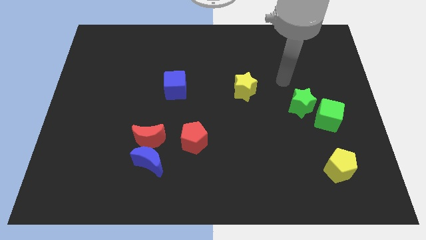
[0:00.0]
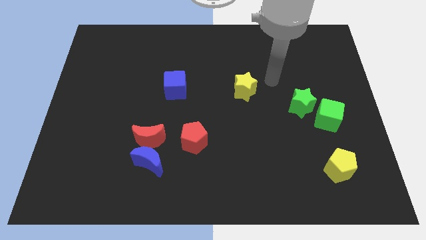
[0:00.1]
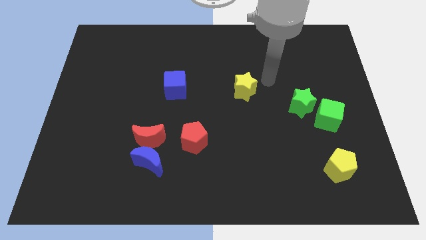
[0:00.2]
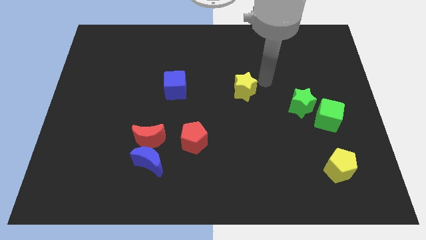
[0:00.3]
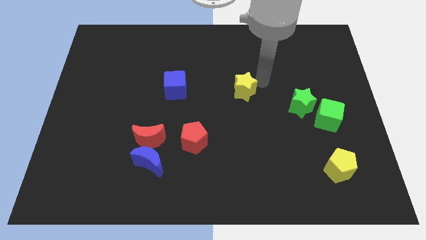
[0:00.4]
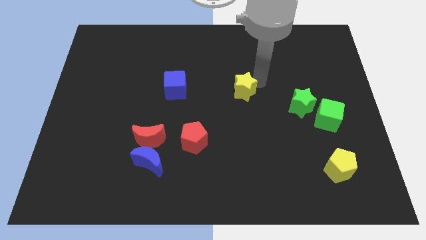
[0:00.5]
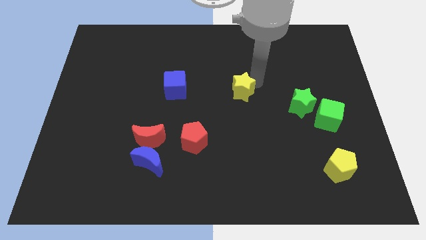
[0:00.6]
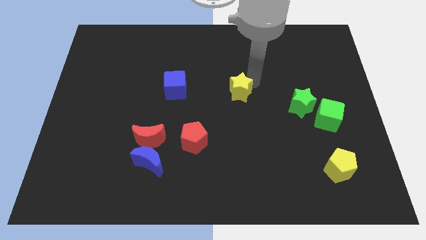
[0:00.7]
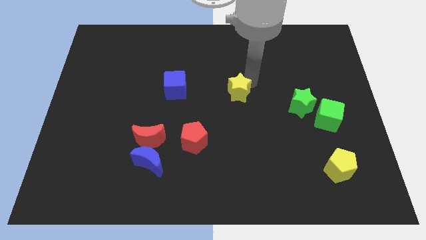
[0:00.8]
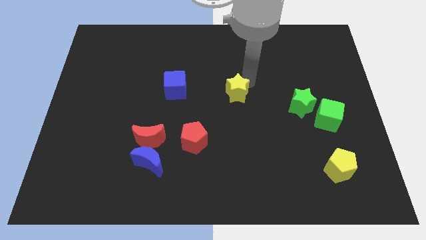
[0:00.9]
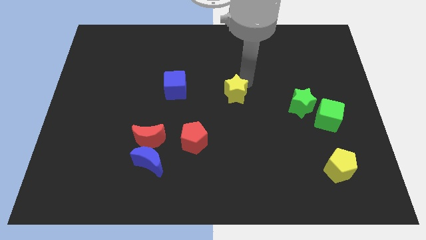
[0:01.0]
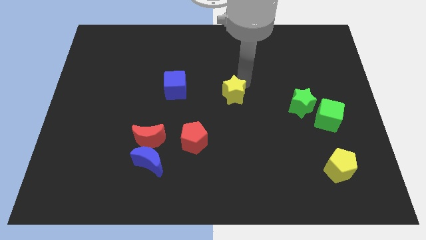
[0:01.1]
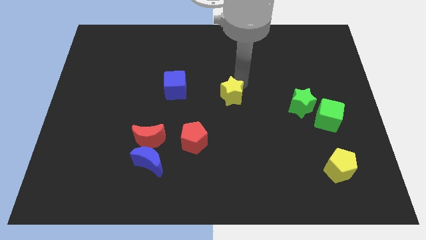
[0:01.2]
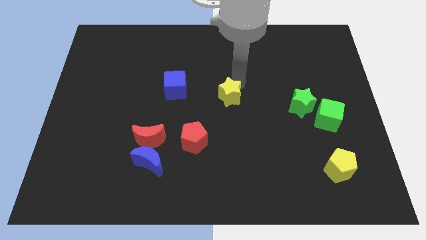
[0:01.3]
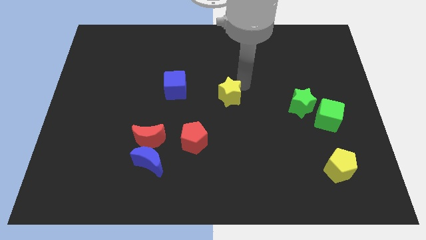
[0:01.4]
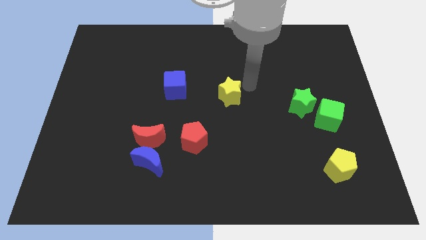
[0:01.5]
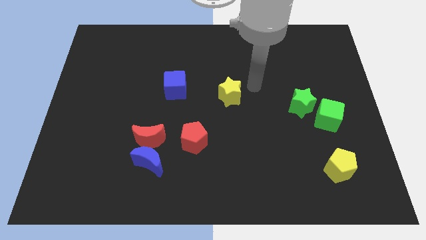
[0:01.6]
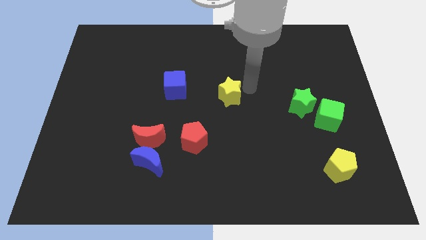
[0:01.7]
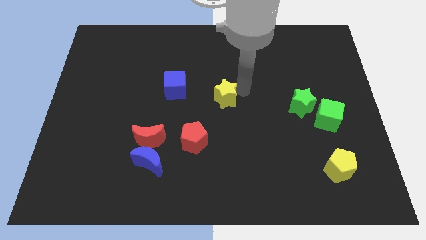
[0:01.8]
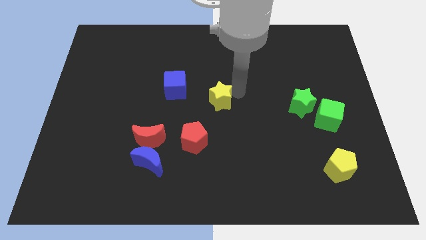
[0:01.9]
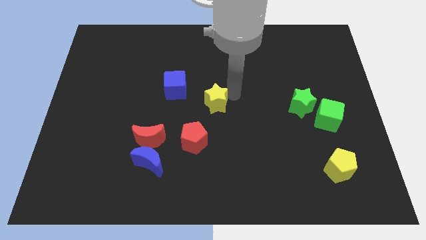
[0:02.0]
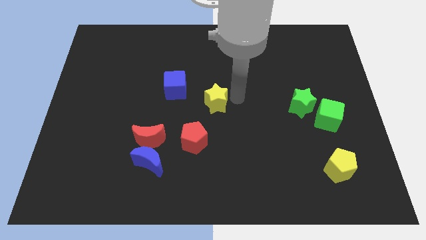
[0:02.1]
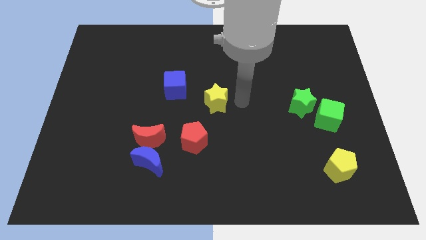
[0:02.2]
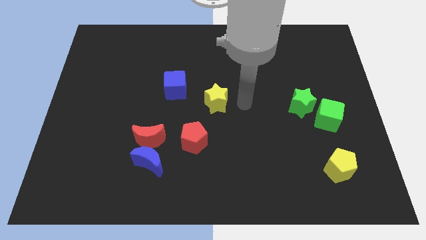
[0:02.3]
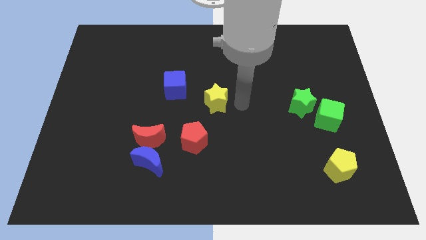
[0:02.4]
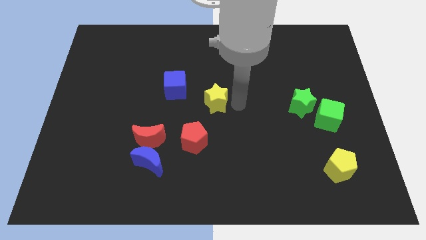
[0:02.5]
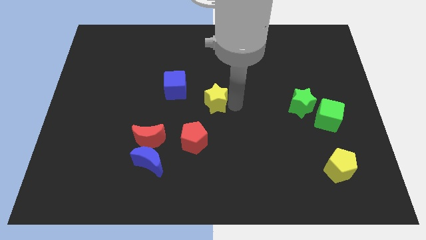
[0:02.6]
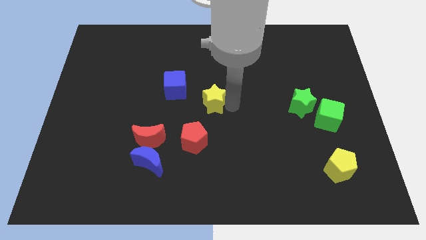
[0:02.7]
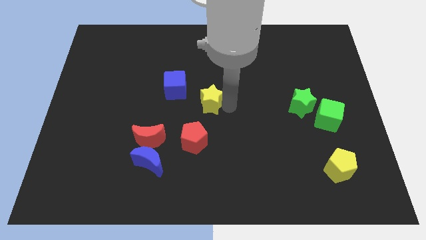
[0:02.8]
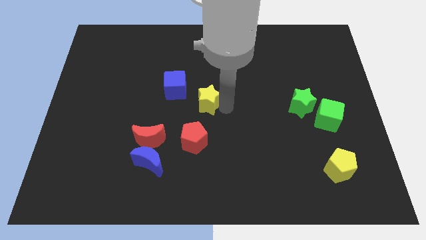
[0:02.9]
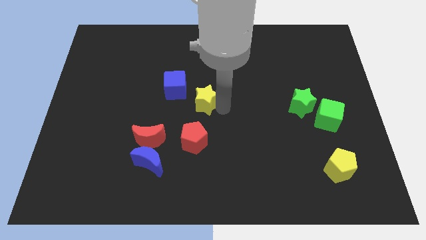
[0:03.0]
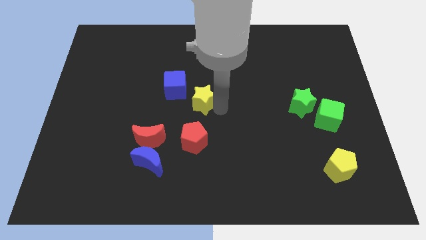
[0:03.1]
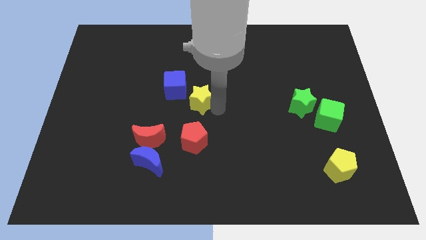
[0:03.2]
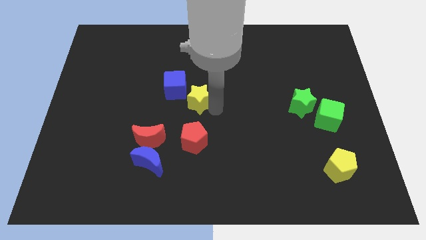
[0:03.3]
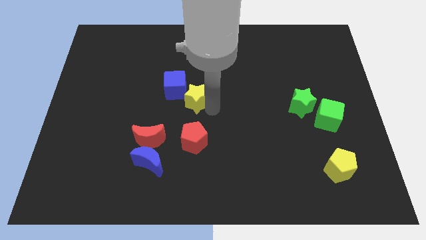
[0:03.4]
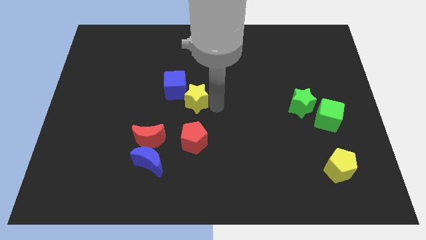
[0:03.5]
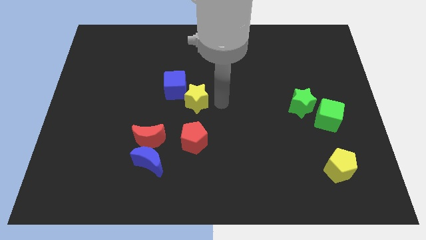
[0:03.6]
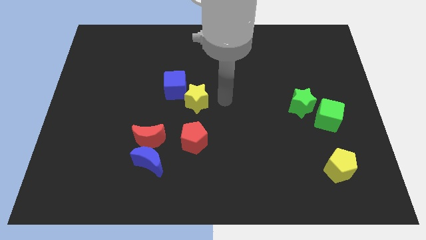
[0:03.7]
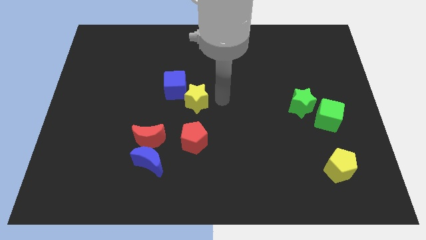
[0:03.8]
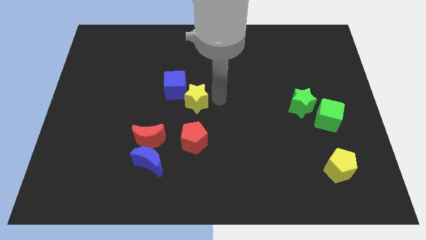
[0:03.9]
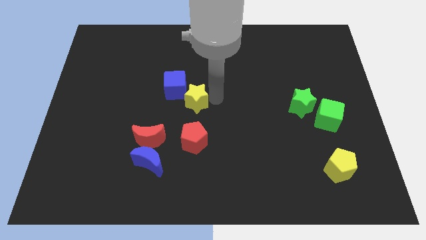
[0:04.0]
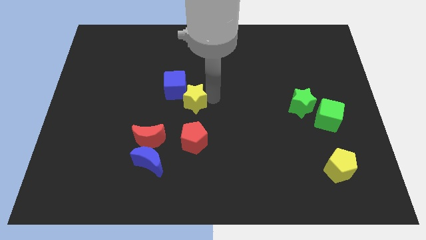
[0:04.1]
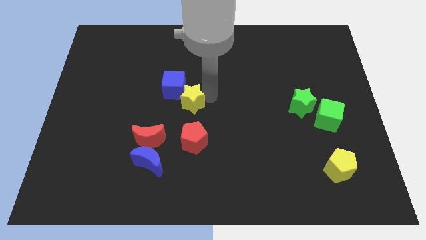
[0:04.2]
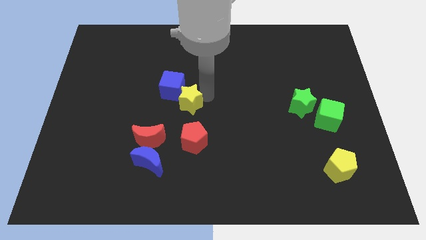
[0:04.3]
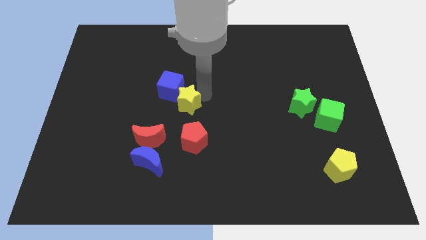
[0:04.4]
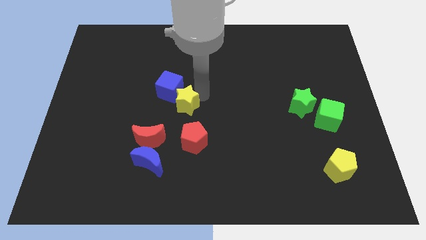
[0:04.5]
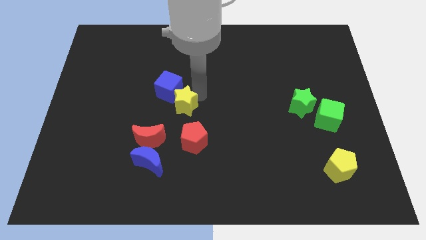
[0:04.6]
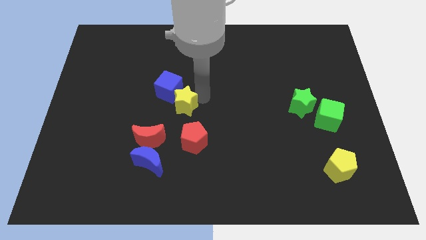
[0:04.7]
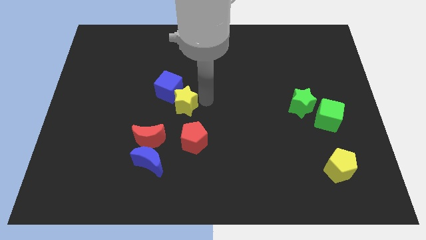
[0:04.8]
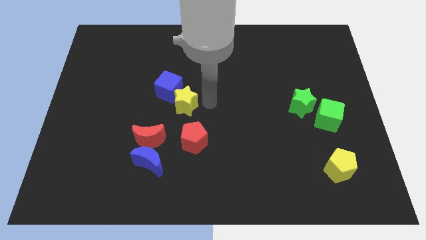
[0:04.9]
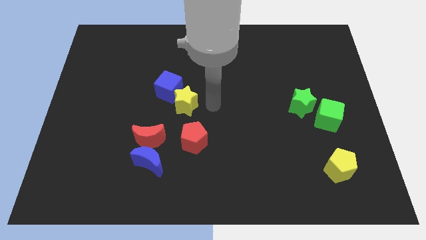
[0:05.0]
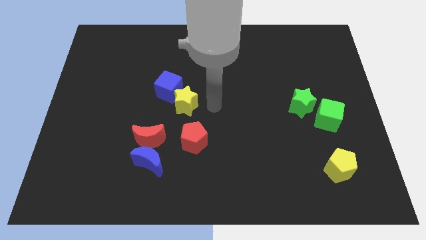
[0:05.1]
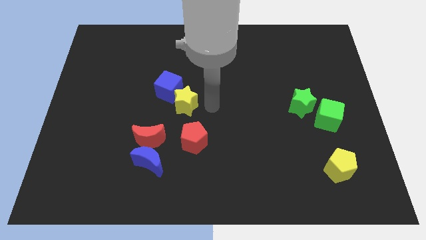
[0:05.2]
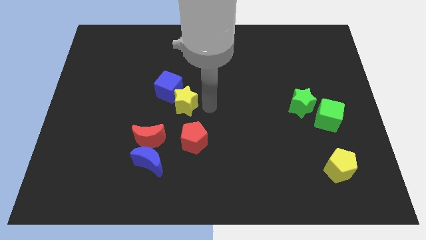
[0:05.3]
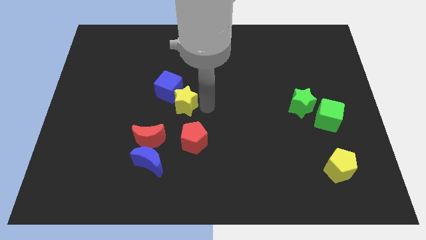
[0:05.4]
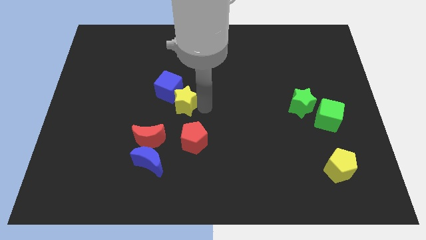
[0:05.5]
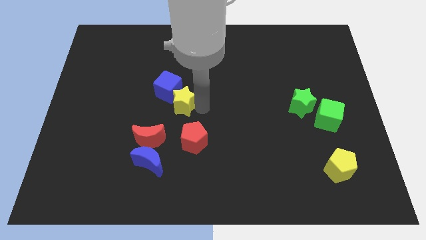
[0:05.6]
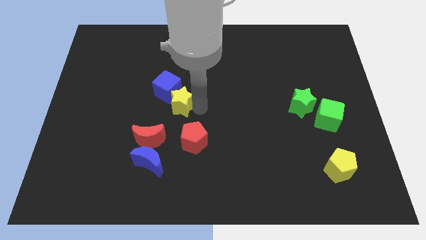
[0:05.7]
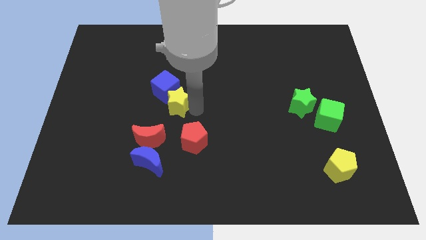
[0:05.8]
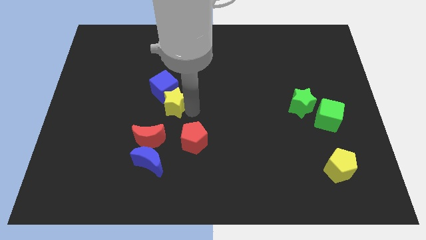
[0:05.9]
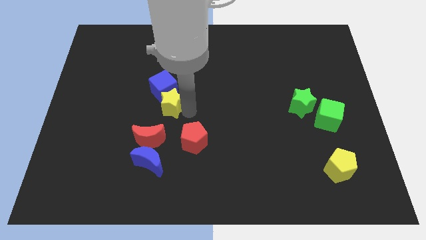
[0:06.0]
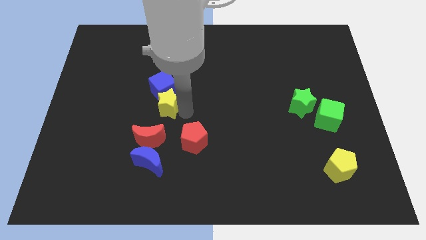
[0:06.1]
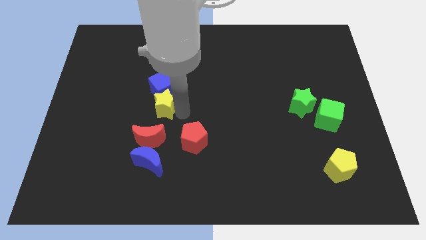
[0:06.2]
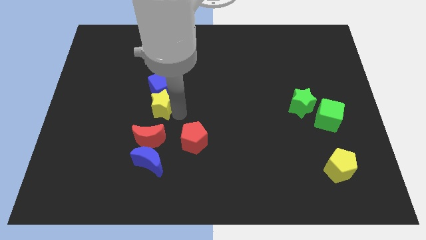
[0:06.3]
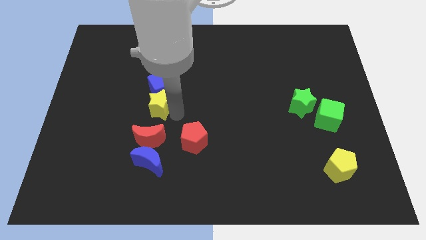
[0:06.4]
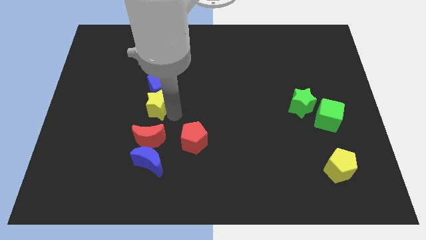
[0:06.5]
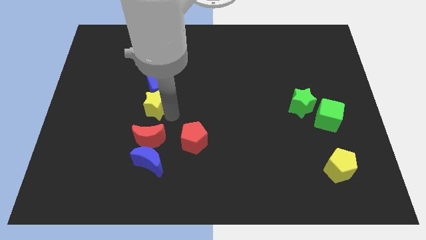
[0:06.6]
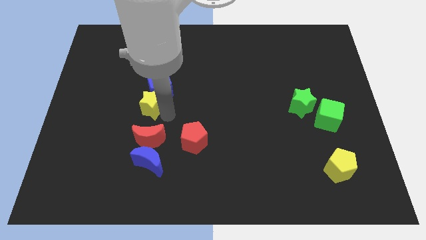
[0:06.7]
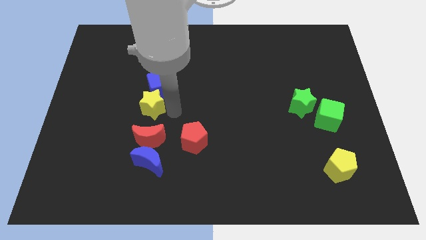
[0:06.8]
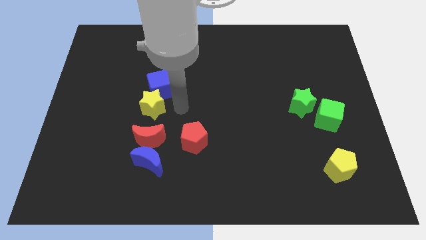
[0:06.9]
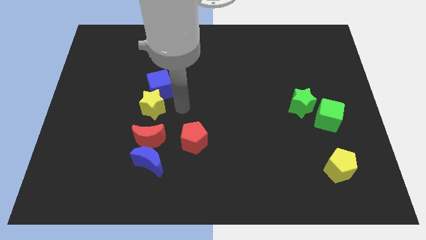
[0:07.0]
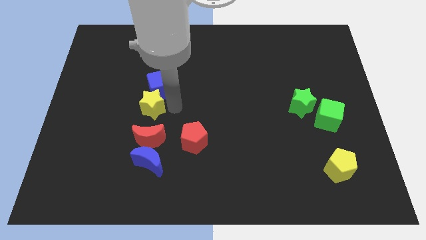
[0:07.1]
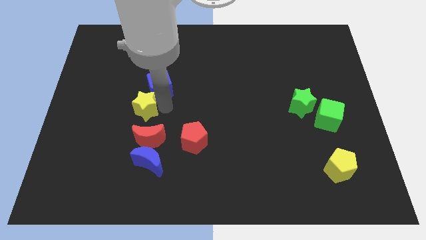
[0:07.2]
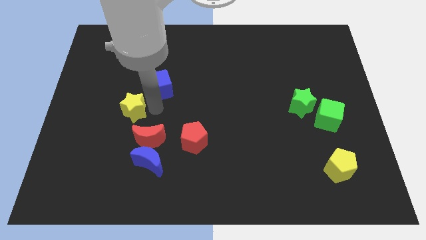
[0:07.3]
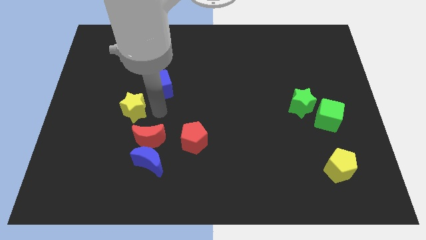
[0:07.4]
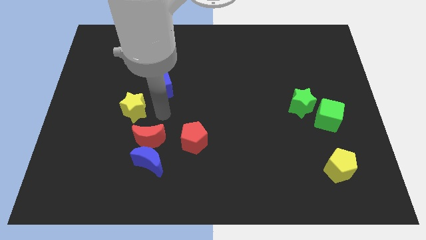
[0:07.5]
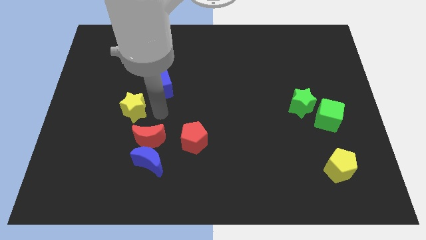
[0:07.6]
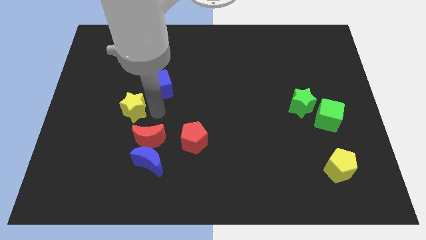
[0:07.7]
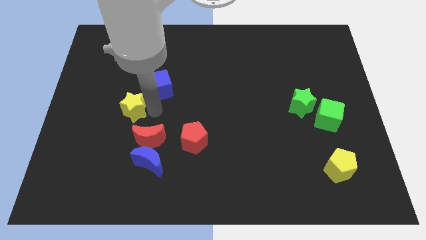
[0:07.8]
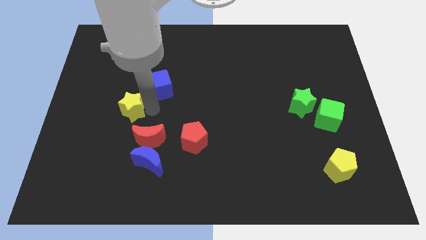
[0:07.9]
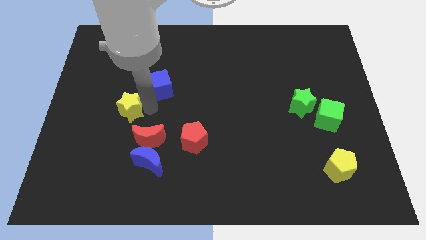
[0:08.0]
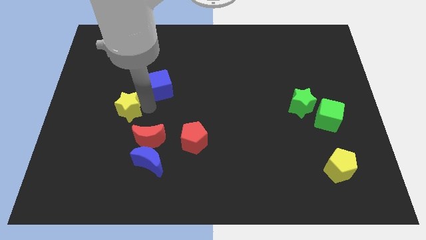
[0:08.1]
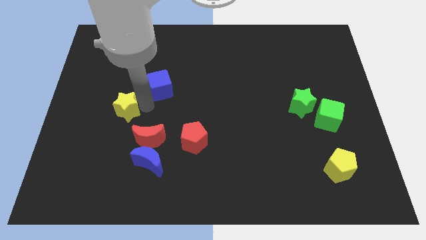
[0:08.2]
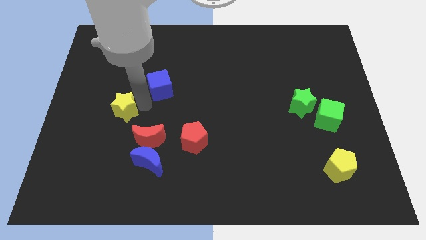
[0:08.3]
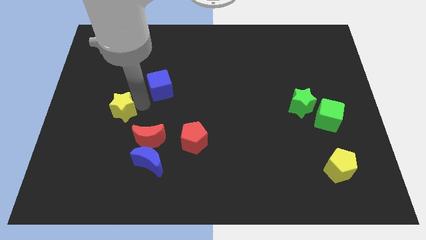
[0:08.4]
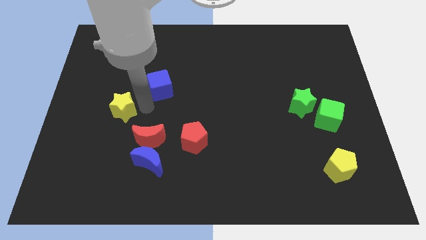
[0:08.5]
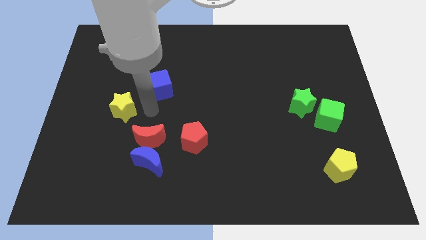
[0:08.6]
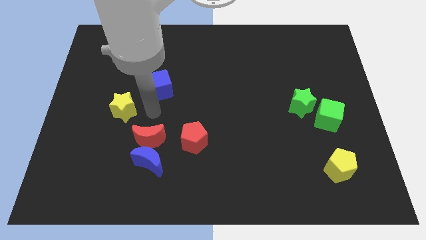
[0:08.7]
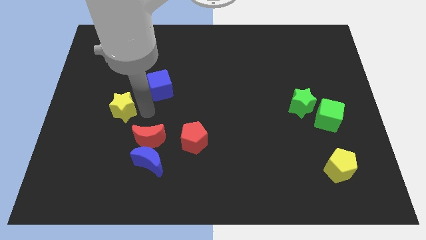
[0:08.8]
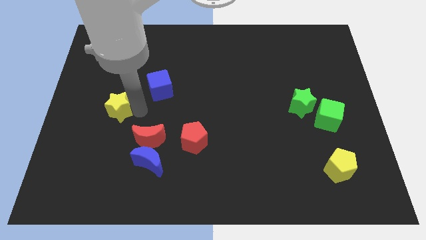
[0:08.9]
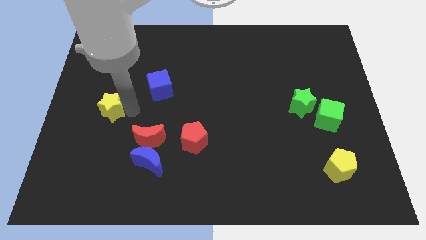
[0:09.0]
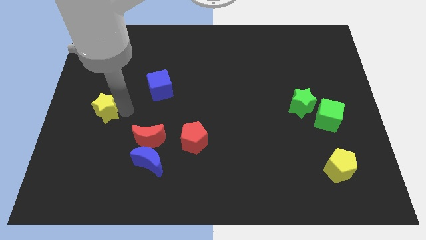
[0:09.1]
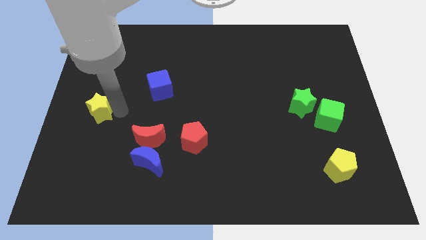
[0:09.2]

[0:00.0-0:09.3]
push the yellow star to the center left
